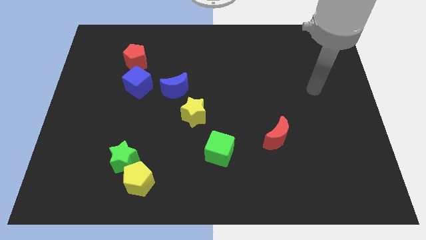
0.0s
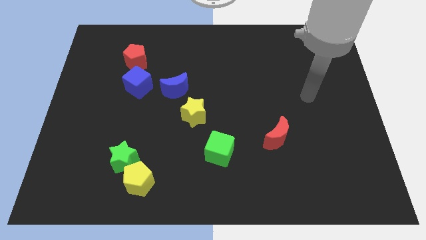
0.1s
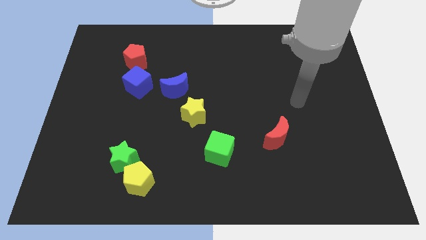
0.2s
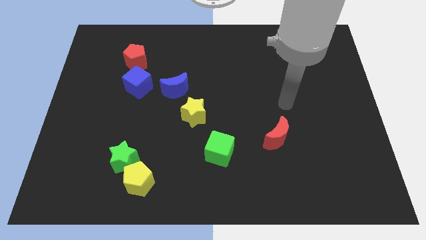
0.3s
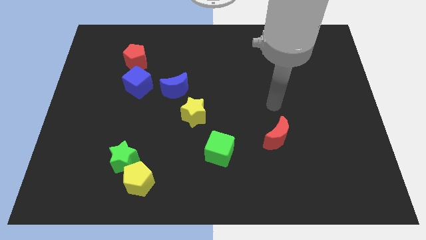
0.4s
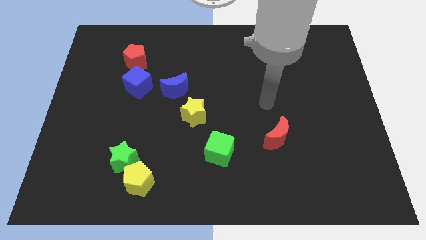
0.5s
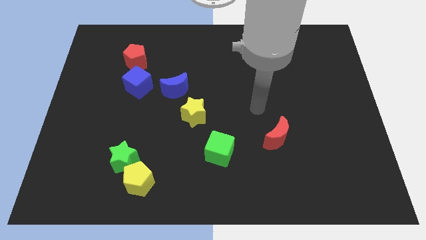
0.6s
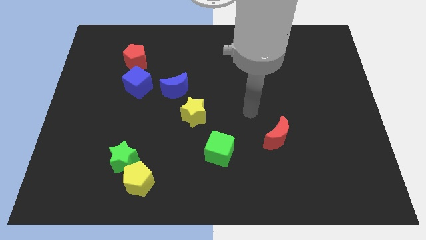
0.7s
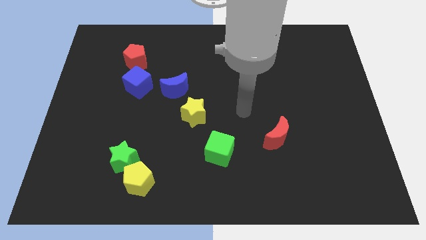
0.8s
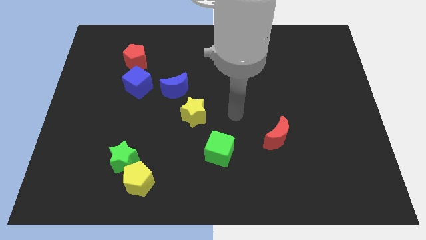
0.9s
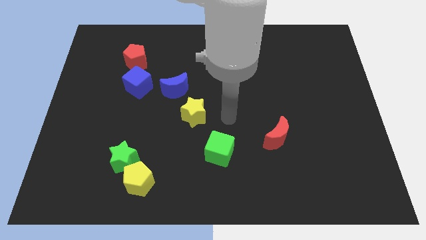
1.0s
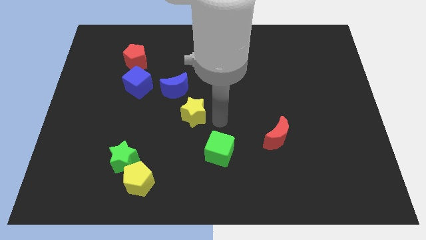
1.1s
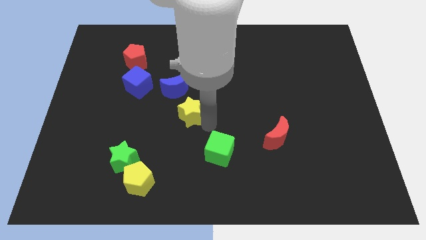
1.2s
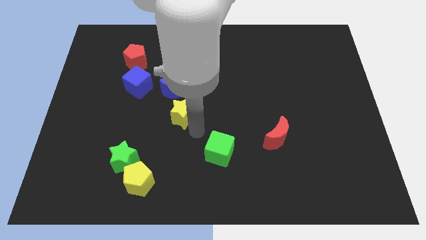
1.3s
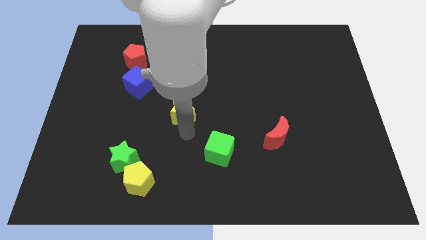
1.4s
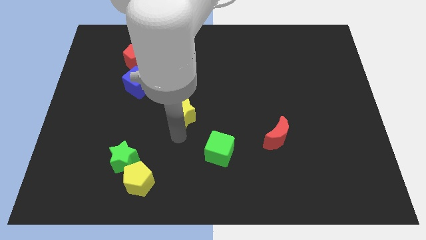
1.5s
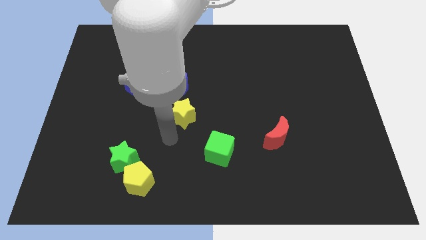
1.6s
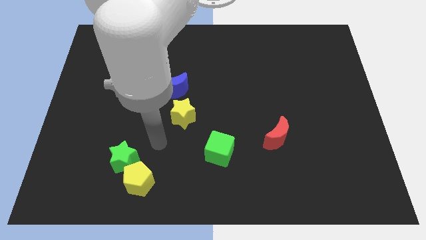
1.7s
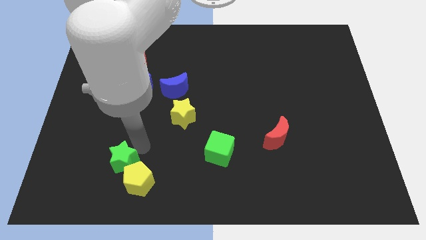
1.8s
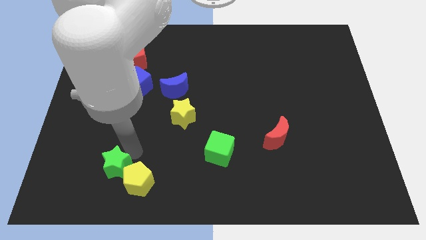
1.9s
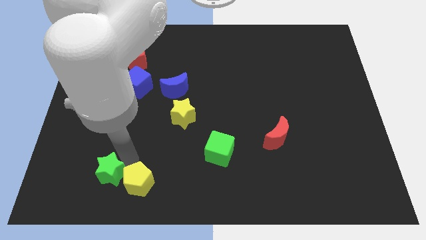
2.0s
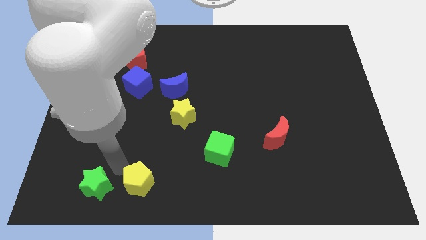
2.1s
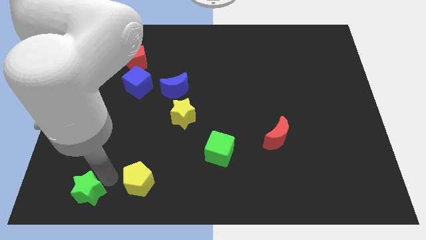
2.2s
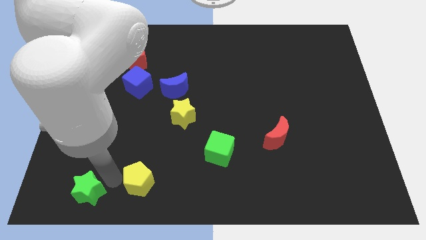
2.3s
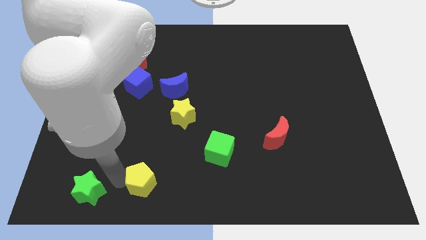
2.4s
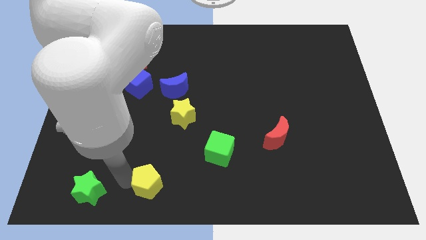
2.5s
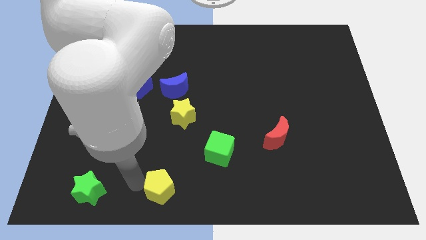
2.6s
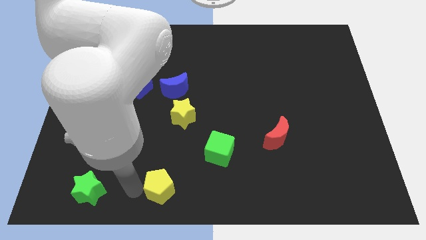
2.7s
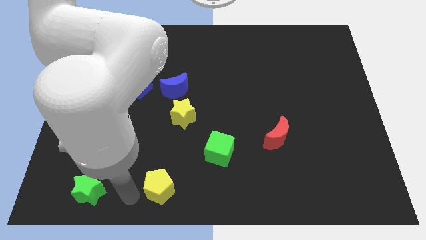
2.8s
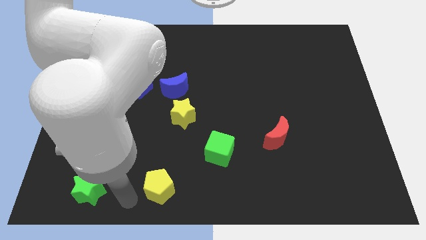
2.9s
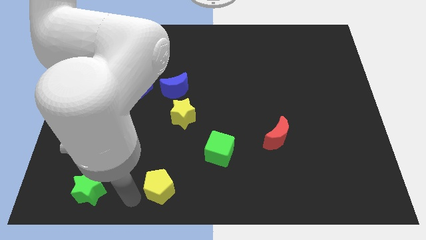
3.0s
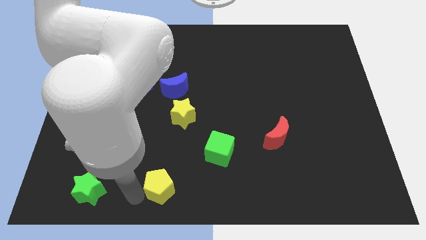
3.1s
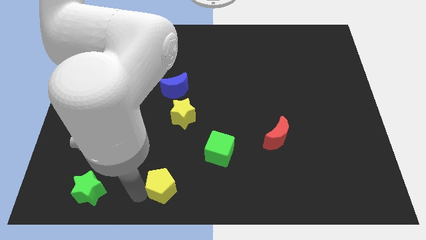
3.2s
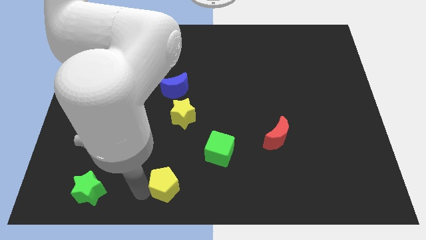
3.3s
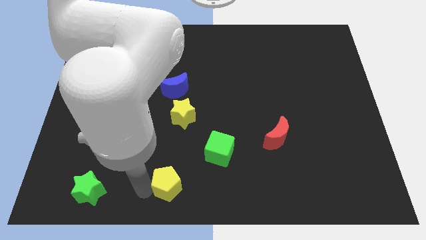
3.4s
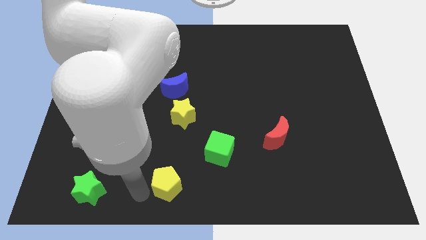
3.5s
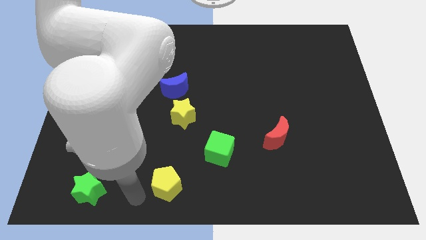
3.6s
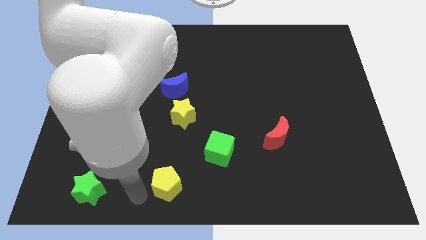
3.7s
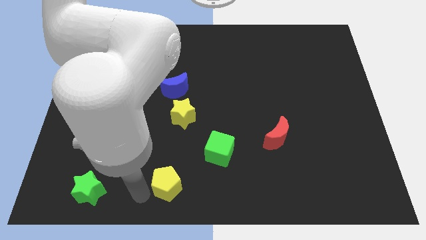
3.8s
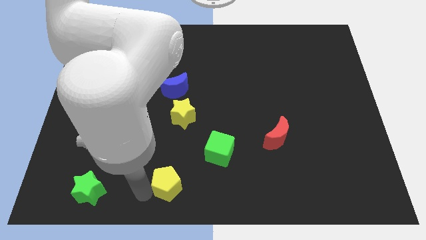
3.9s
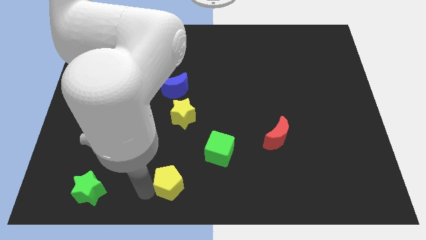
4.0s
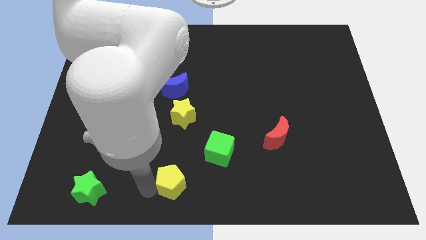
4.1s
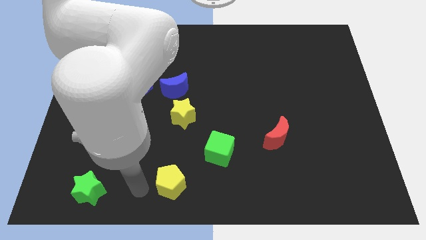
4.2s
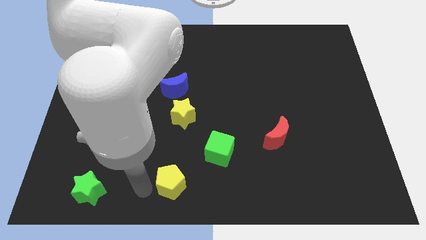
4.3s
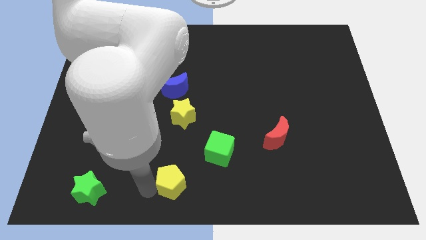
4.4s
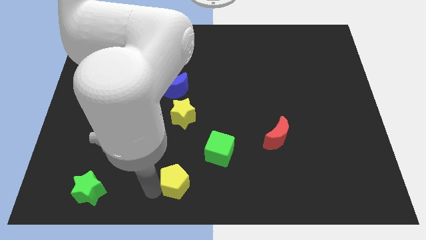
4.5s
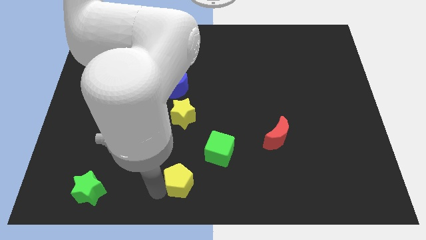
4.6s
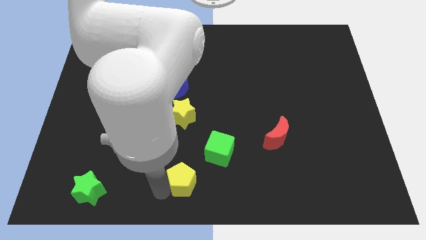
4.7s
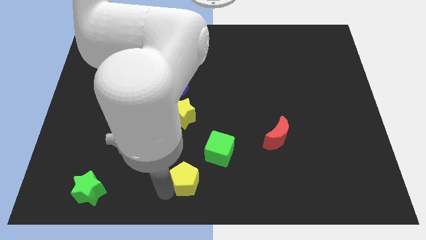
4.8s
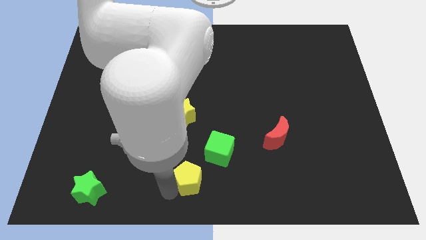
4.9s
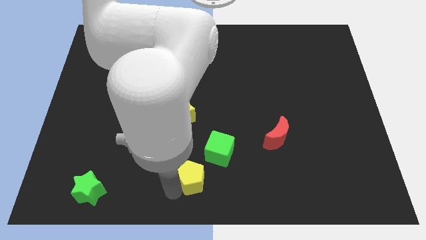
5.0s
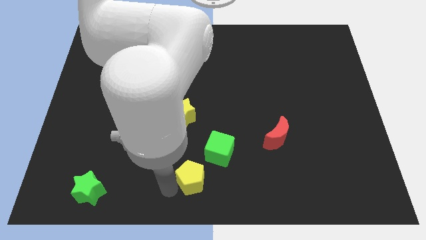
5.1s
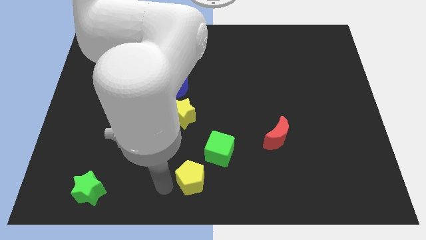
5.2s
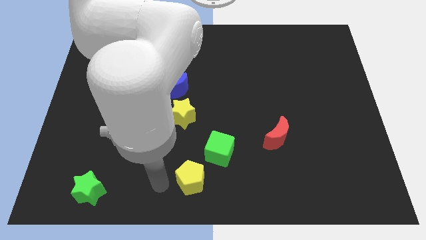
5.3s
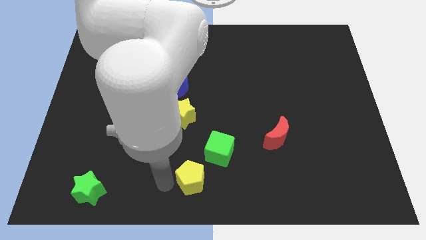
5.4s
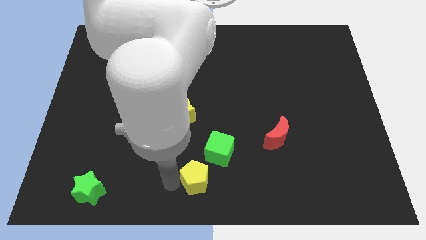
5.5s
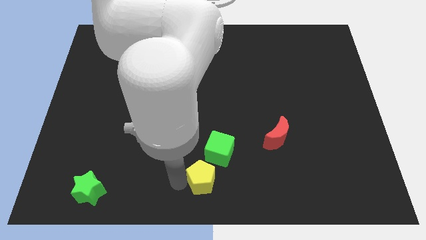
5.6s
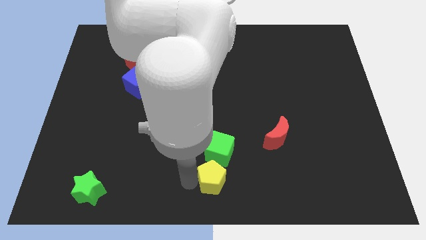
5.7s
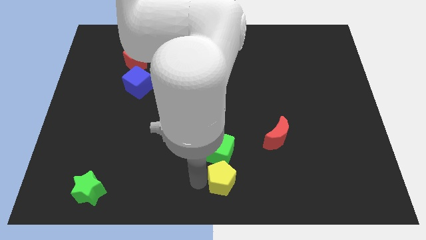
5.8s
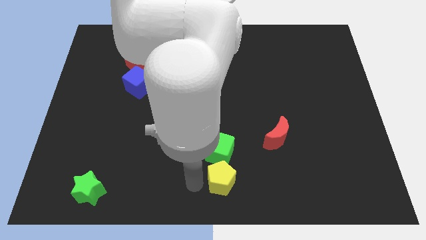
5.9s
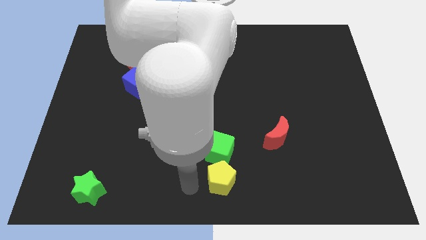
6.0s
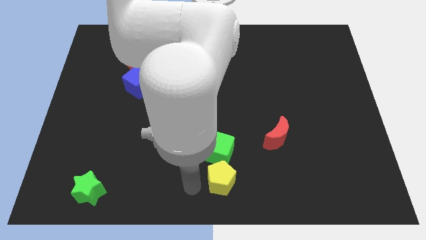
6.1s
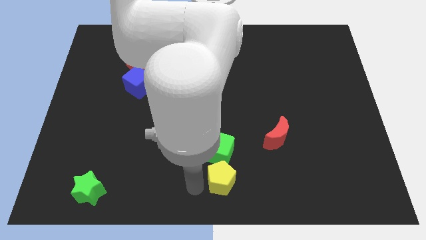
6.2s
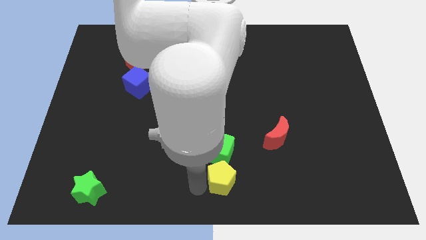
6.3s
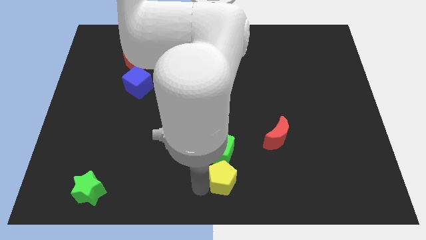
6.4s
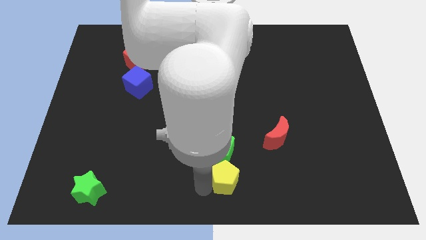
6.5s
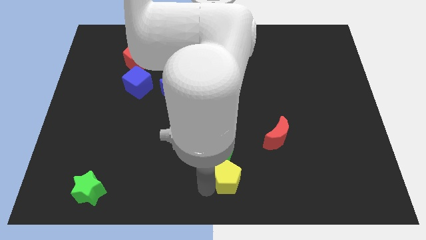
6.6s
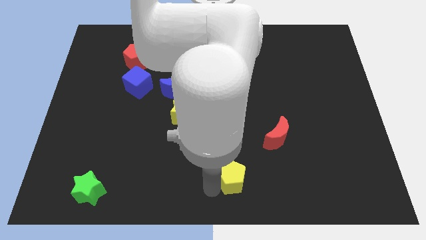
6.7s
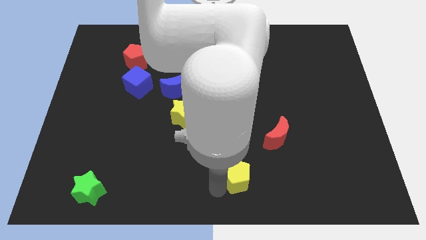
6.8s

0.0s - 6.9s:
move the yellow pentagon to the right

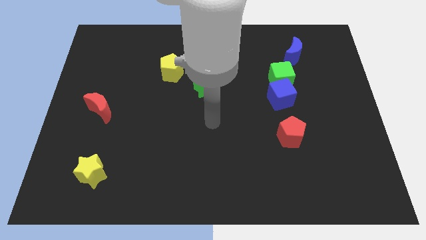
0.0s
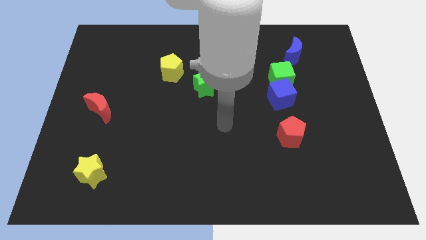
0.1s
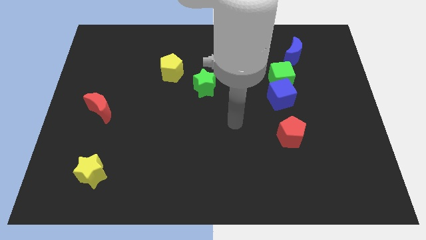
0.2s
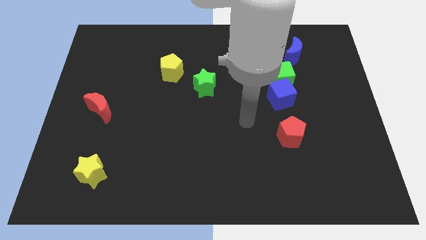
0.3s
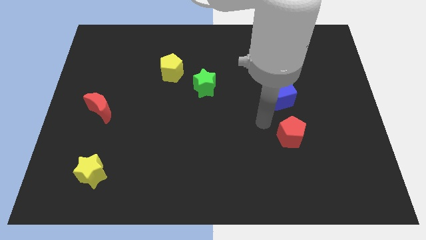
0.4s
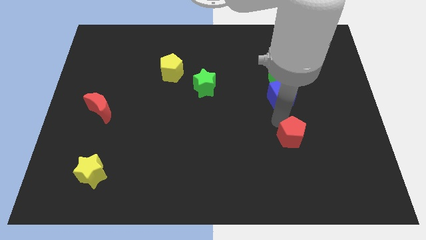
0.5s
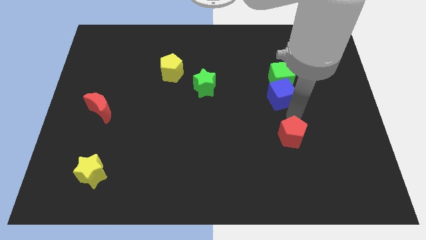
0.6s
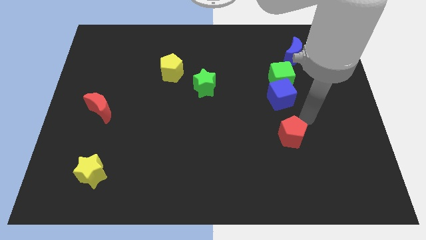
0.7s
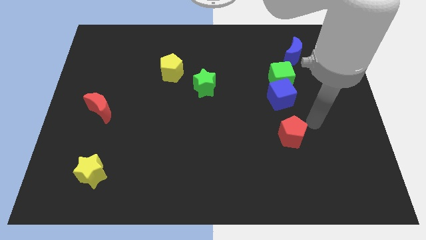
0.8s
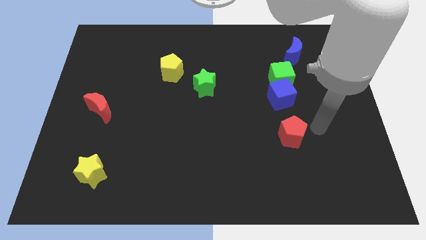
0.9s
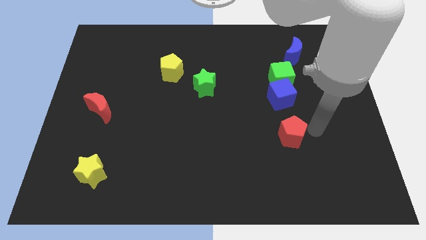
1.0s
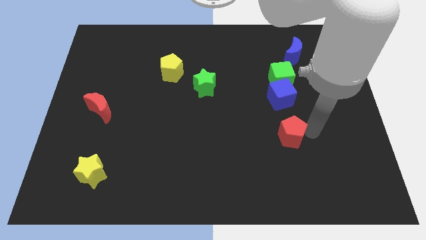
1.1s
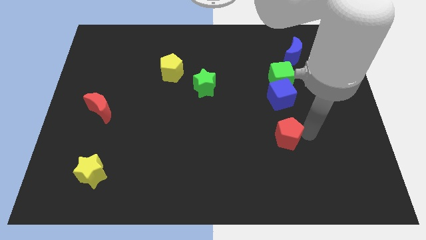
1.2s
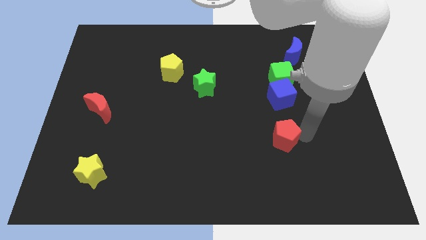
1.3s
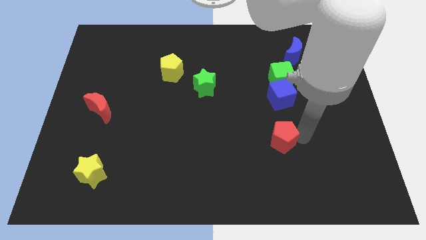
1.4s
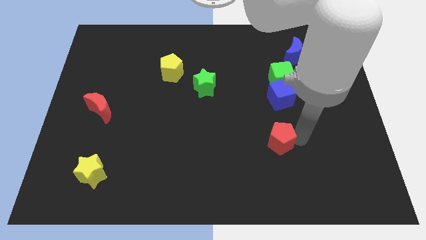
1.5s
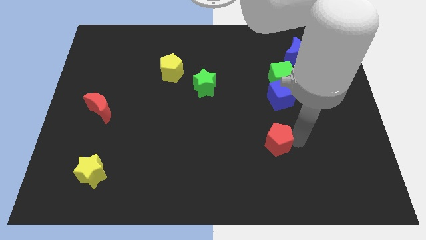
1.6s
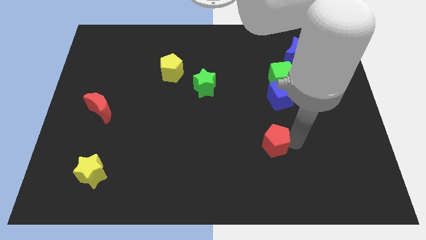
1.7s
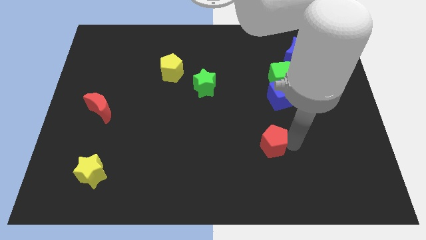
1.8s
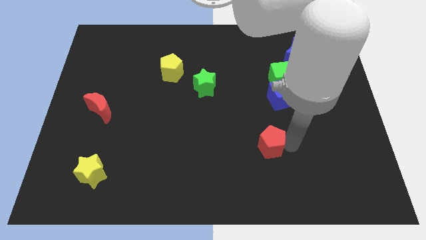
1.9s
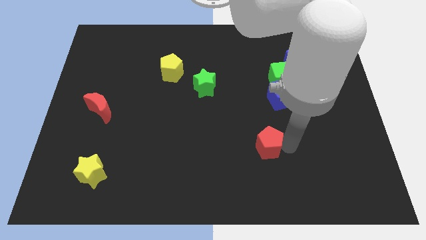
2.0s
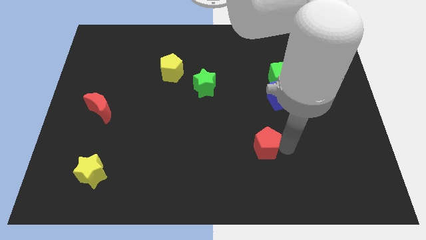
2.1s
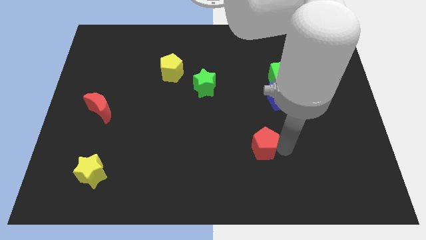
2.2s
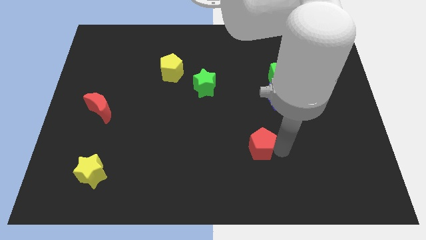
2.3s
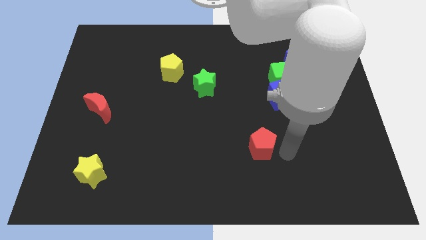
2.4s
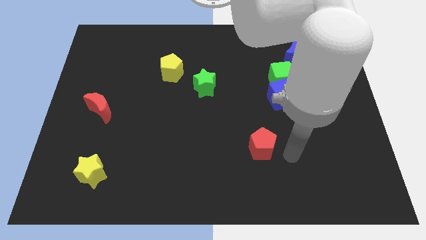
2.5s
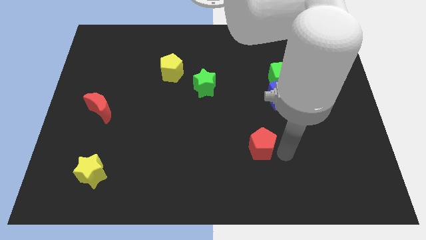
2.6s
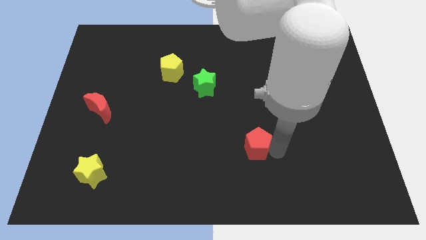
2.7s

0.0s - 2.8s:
slightly move the red pentagon left
